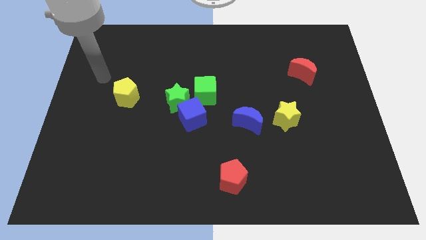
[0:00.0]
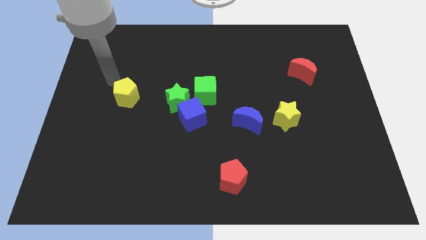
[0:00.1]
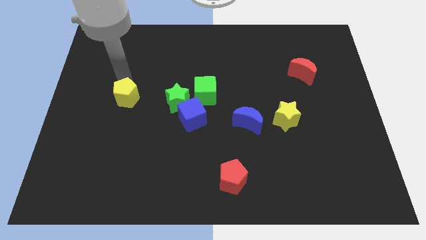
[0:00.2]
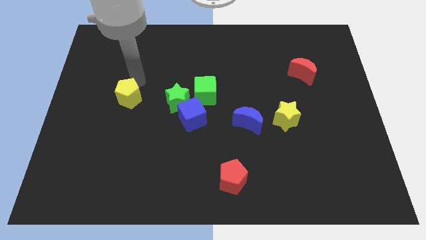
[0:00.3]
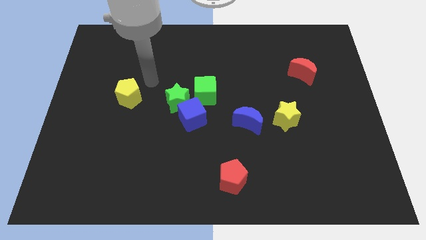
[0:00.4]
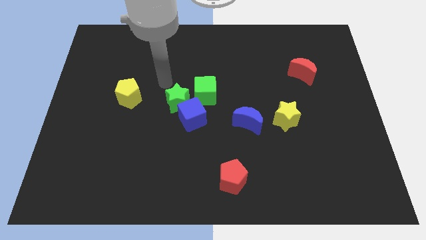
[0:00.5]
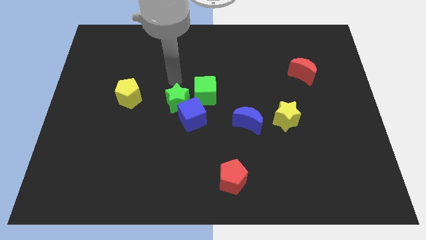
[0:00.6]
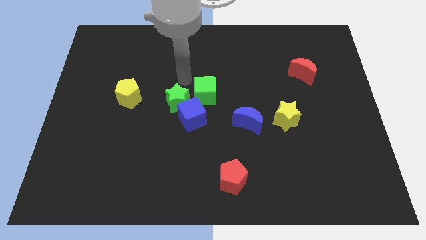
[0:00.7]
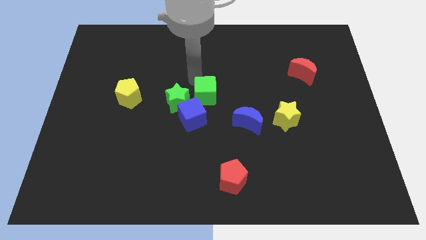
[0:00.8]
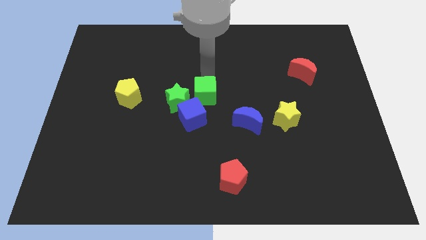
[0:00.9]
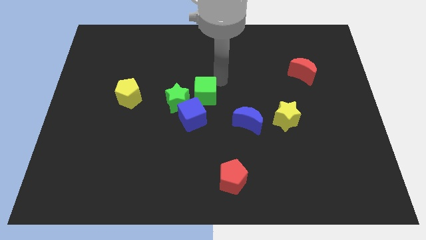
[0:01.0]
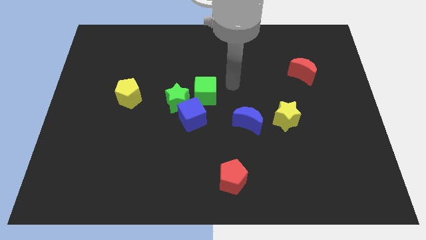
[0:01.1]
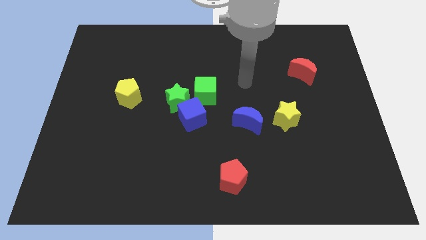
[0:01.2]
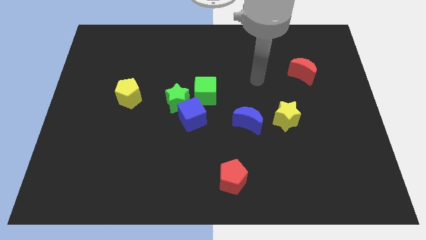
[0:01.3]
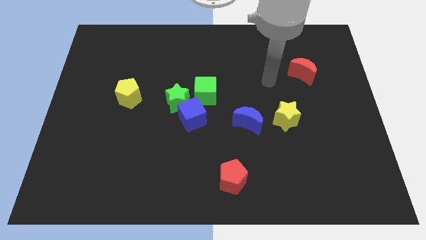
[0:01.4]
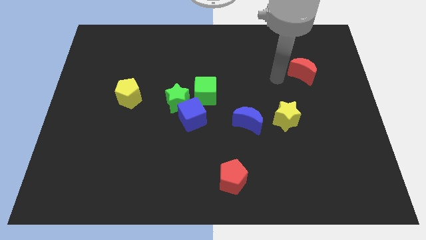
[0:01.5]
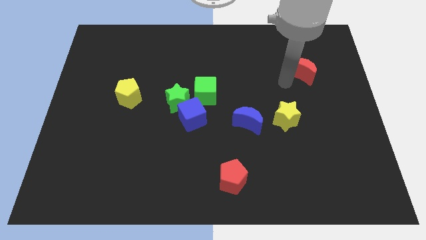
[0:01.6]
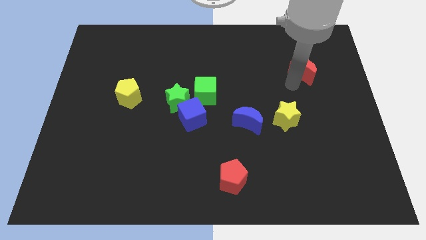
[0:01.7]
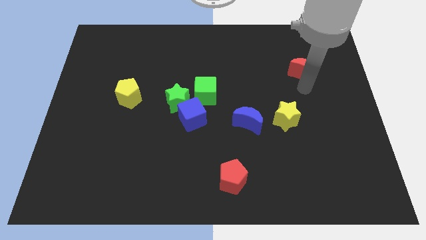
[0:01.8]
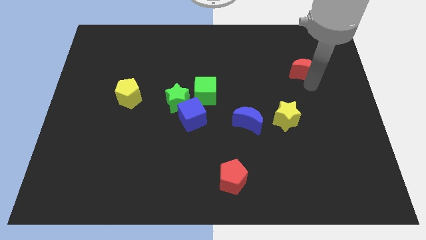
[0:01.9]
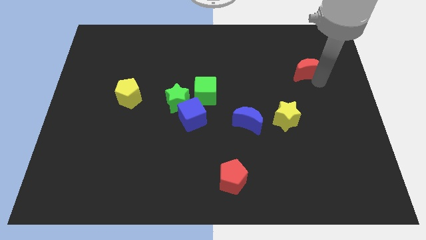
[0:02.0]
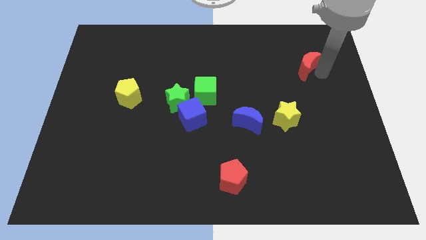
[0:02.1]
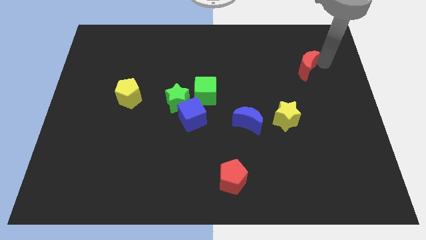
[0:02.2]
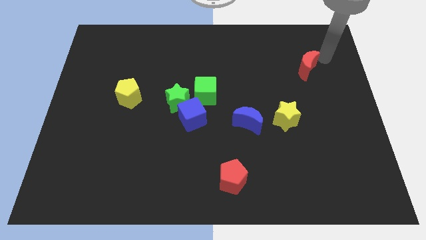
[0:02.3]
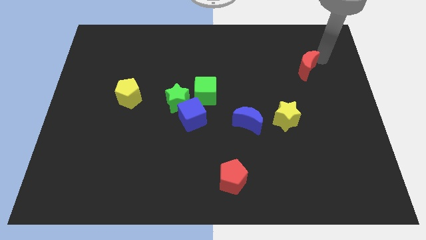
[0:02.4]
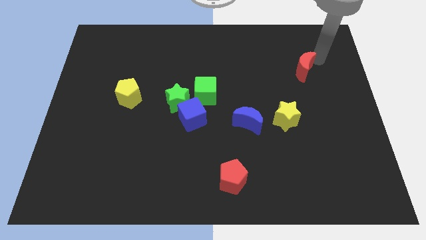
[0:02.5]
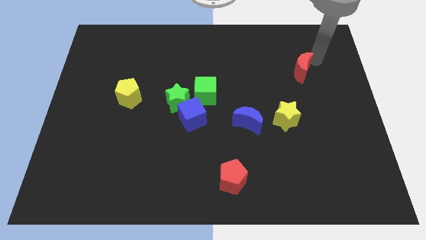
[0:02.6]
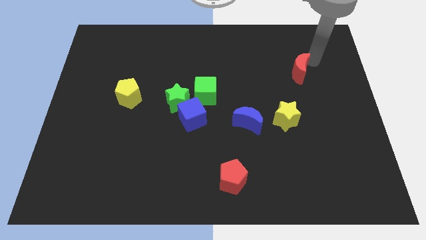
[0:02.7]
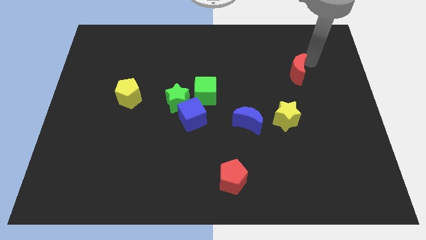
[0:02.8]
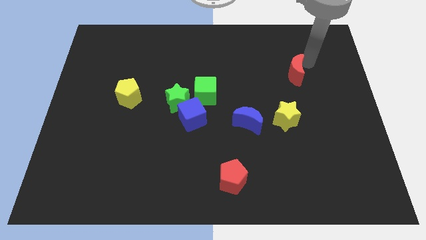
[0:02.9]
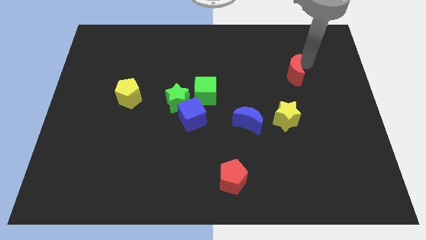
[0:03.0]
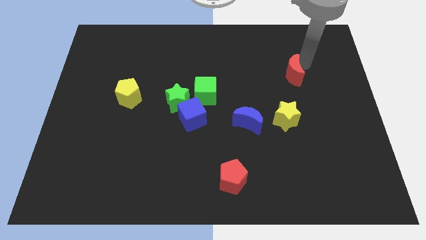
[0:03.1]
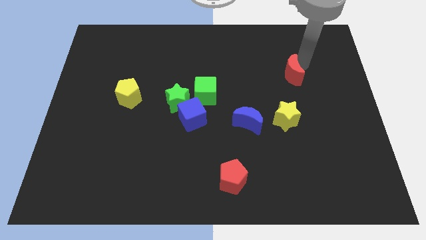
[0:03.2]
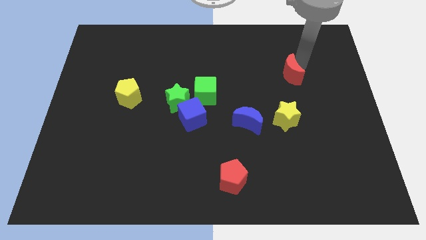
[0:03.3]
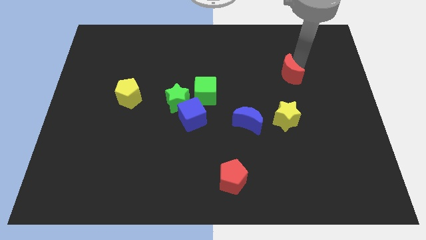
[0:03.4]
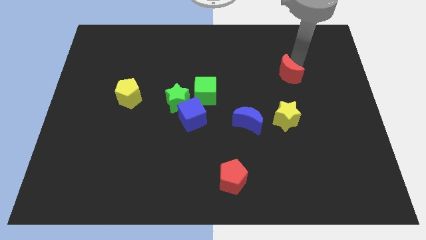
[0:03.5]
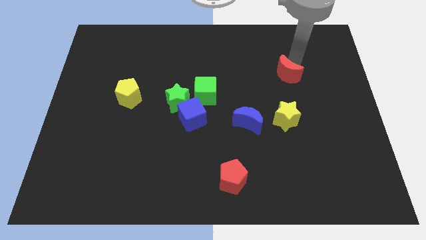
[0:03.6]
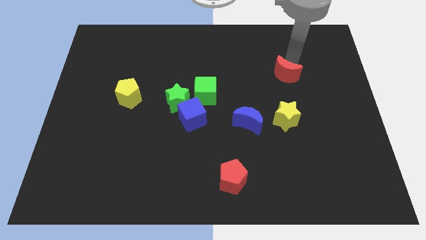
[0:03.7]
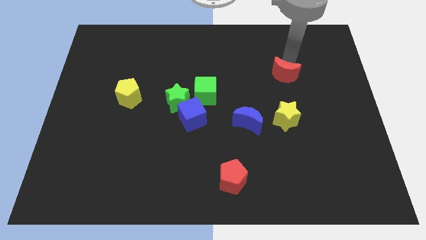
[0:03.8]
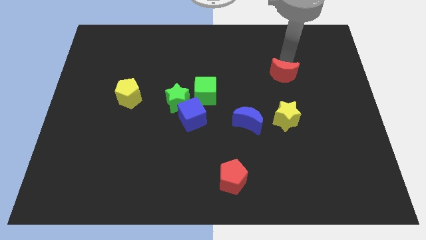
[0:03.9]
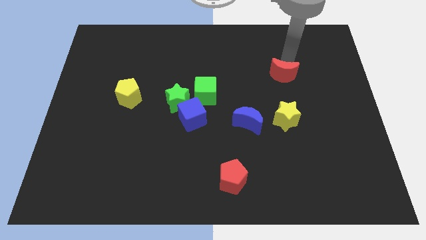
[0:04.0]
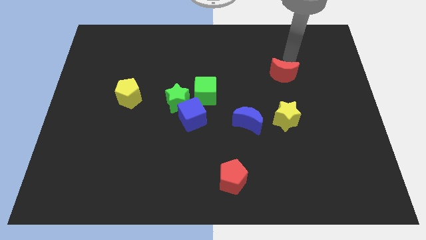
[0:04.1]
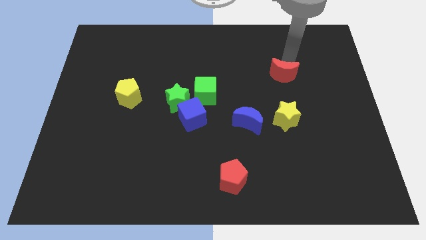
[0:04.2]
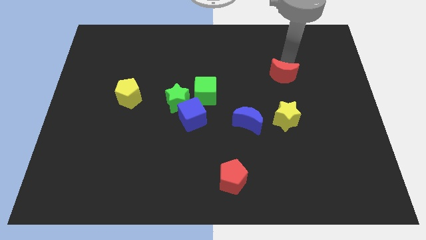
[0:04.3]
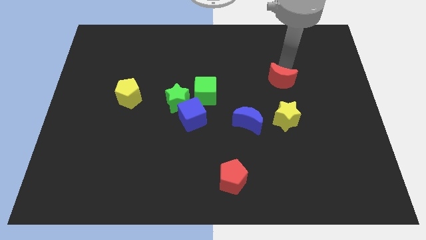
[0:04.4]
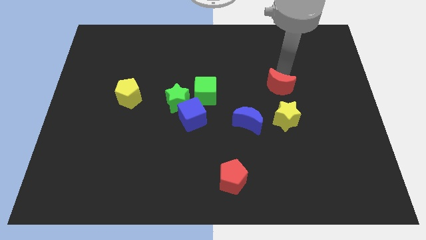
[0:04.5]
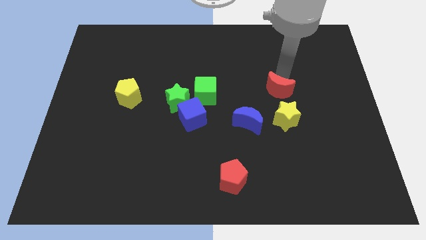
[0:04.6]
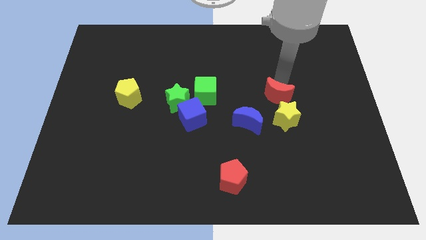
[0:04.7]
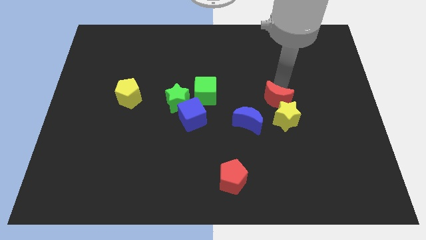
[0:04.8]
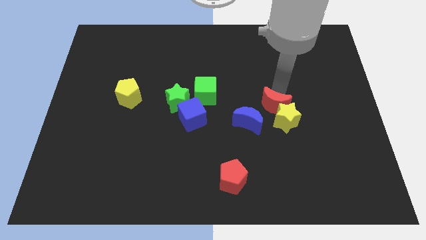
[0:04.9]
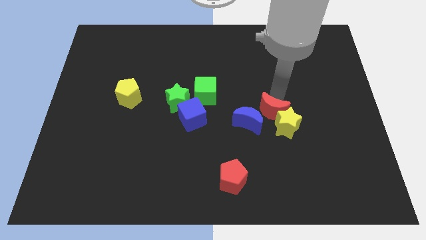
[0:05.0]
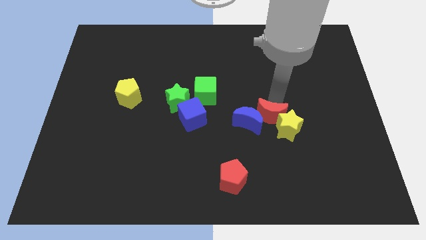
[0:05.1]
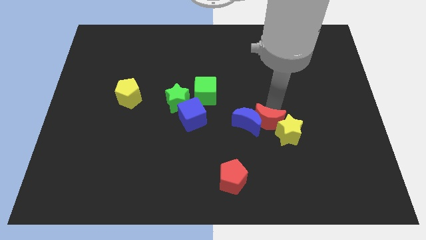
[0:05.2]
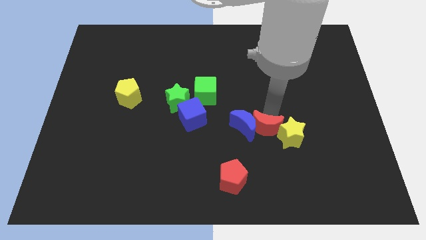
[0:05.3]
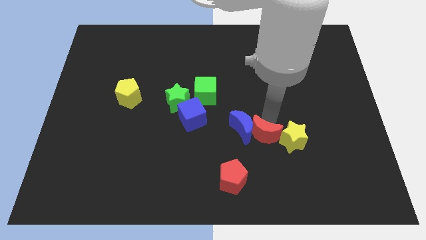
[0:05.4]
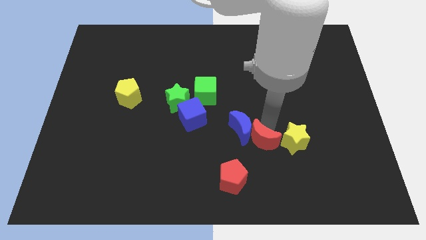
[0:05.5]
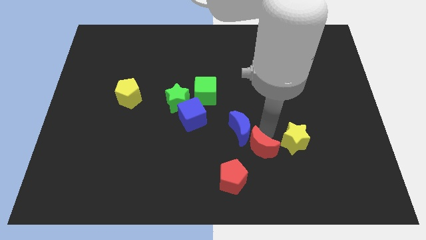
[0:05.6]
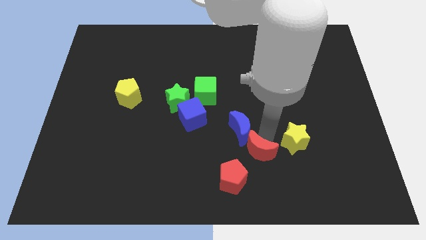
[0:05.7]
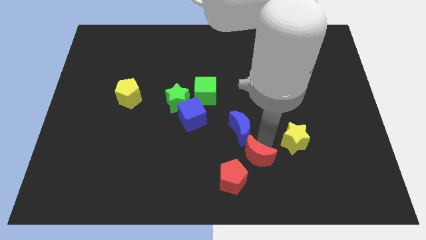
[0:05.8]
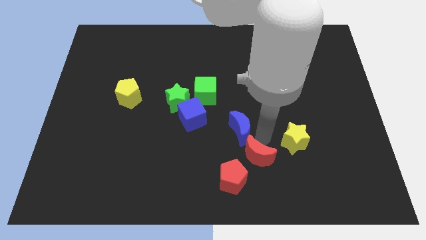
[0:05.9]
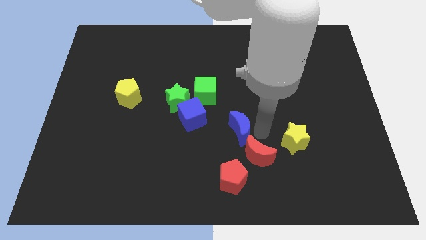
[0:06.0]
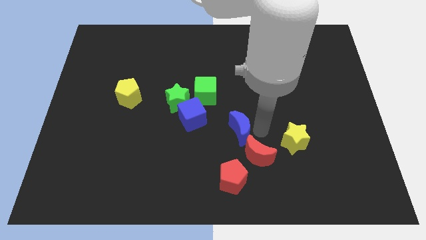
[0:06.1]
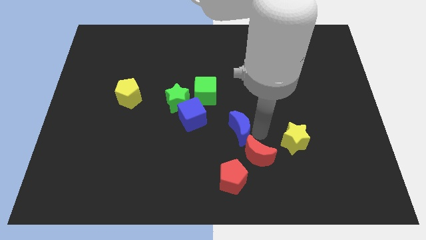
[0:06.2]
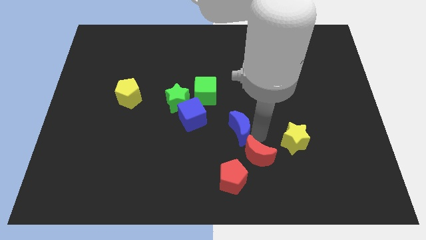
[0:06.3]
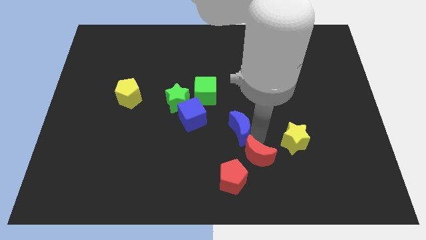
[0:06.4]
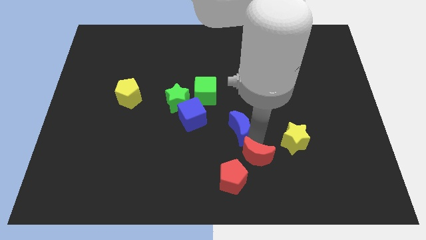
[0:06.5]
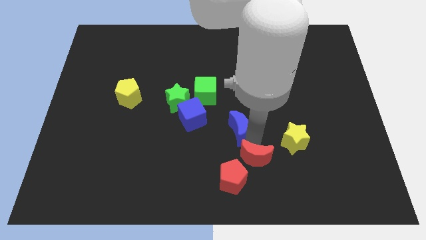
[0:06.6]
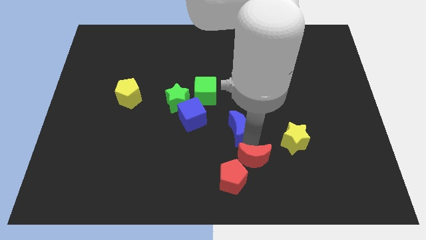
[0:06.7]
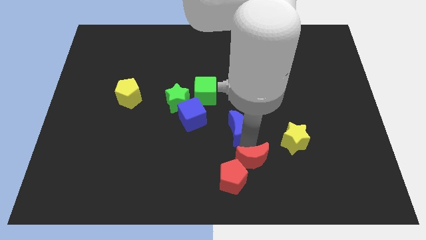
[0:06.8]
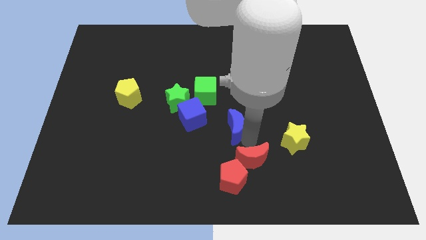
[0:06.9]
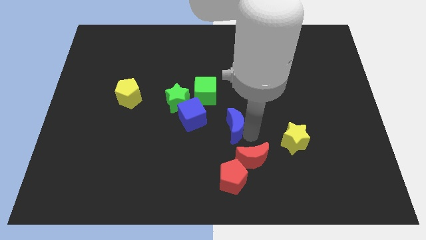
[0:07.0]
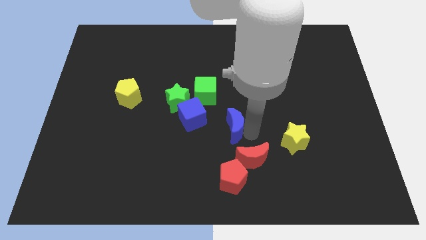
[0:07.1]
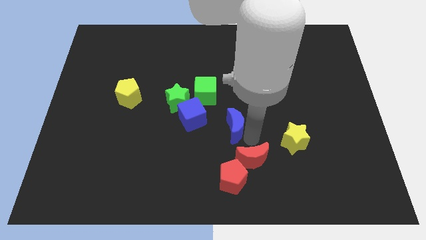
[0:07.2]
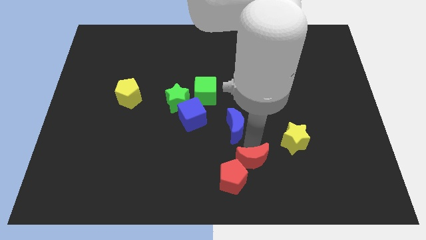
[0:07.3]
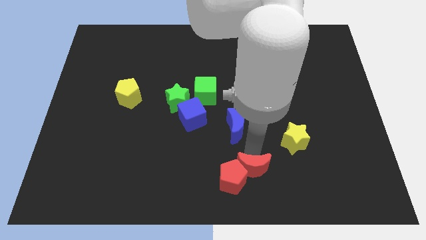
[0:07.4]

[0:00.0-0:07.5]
slide the red moon to the bottom
